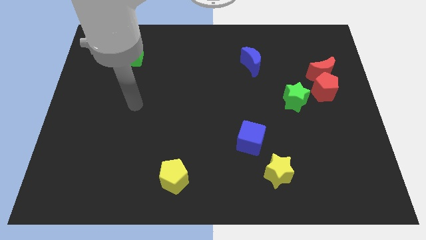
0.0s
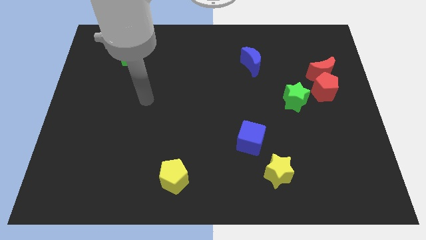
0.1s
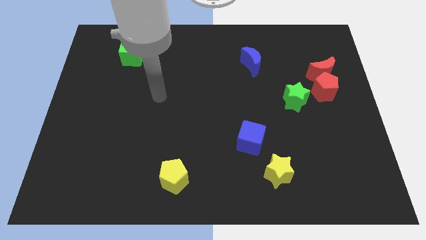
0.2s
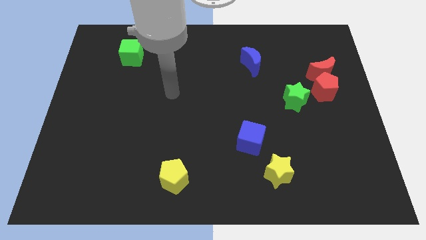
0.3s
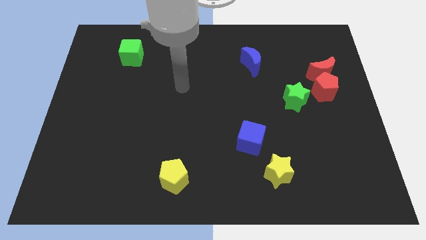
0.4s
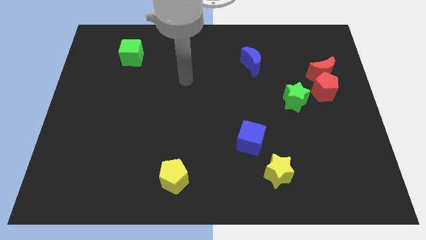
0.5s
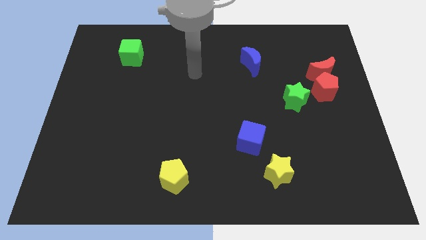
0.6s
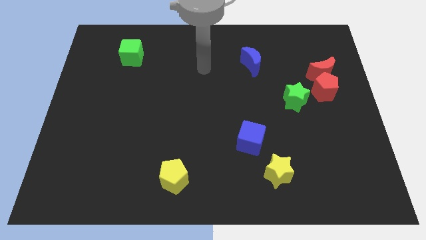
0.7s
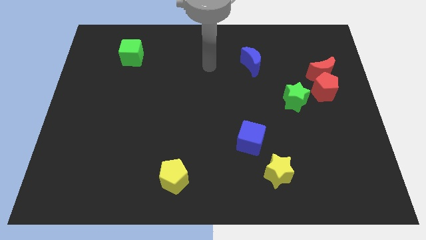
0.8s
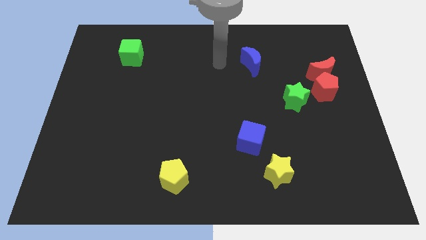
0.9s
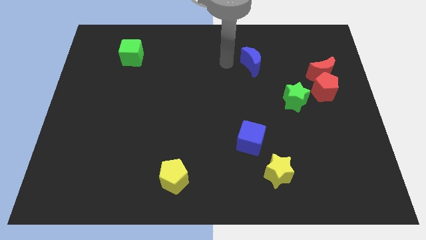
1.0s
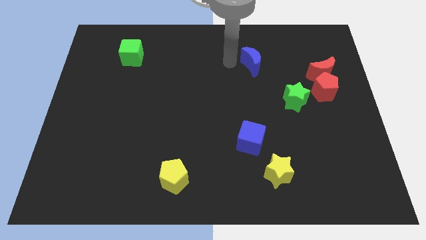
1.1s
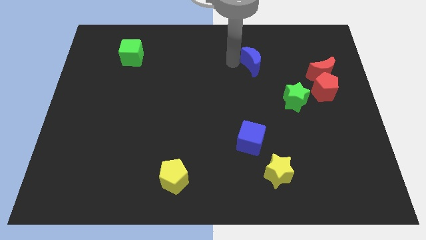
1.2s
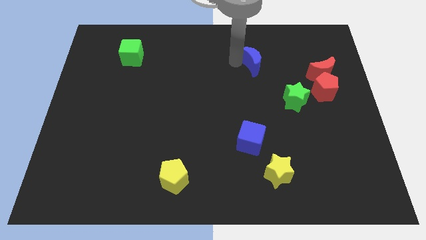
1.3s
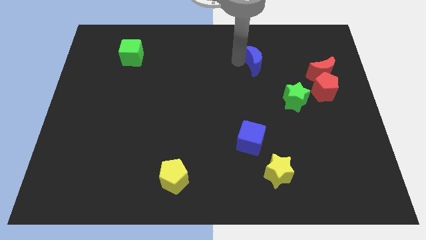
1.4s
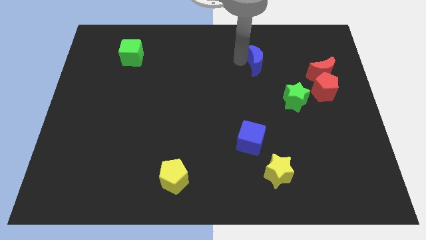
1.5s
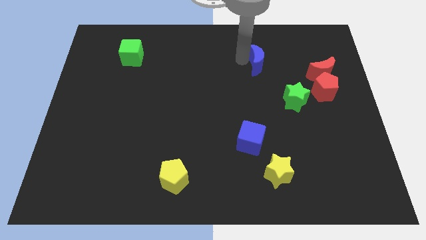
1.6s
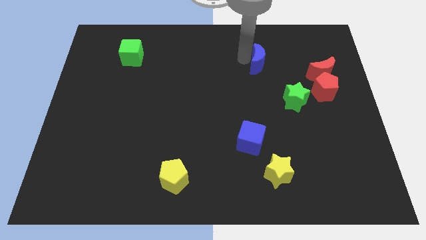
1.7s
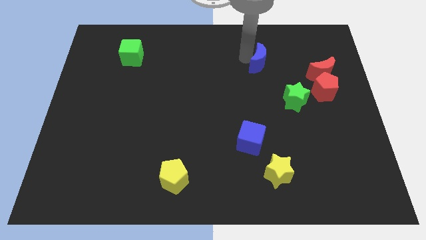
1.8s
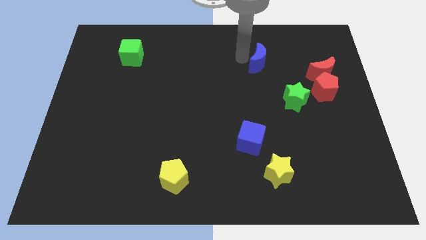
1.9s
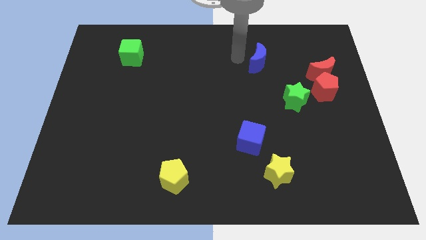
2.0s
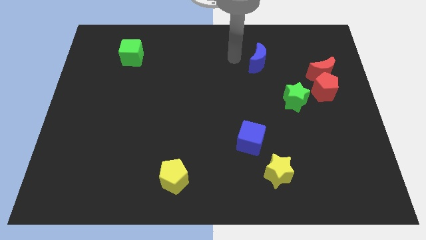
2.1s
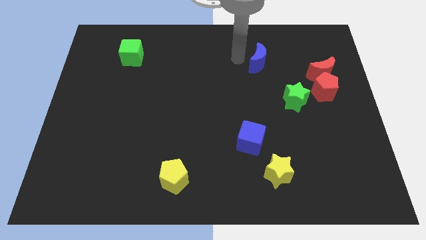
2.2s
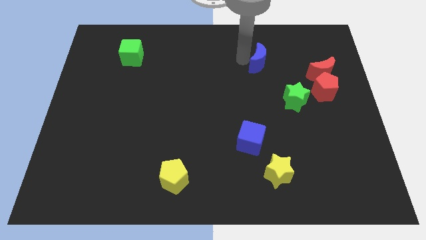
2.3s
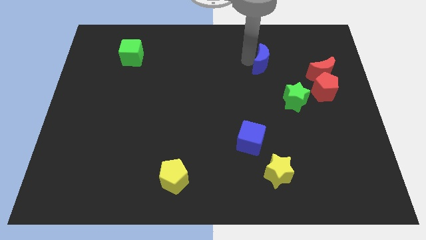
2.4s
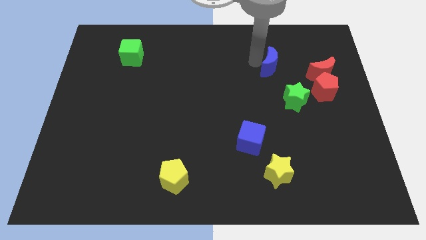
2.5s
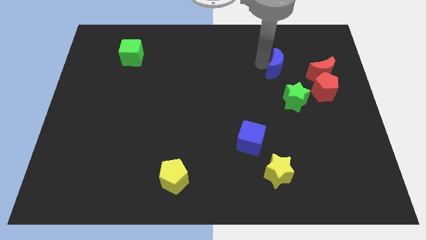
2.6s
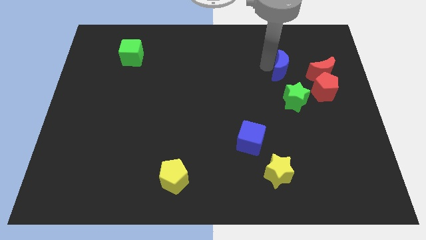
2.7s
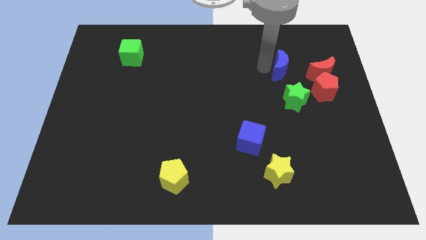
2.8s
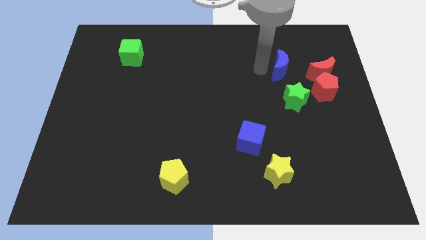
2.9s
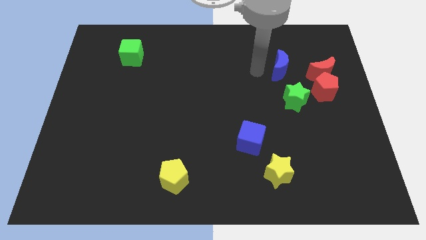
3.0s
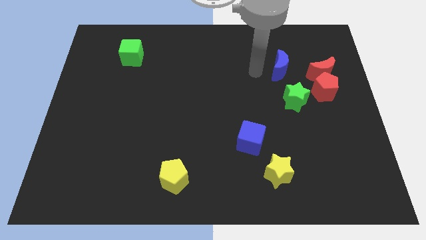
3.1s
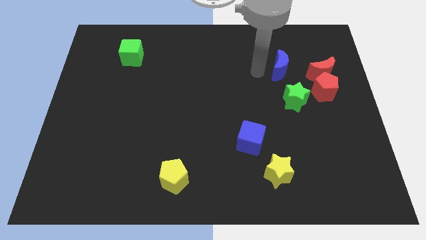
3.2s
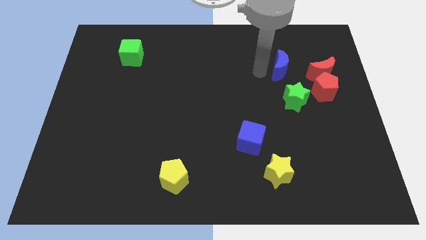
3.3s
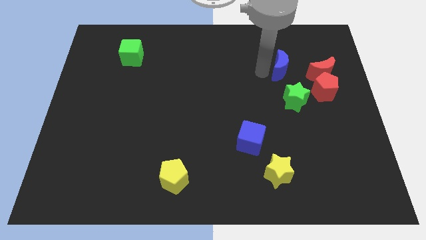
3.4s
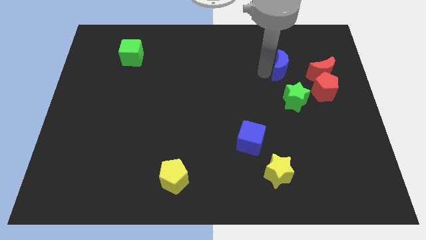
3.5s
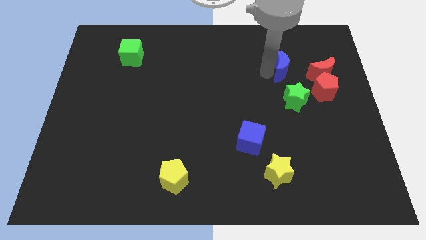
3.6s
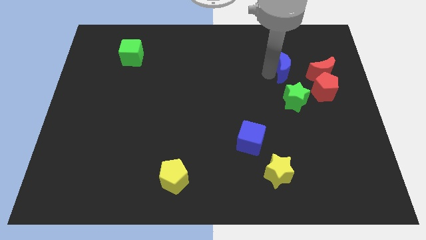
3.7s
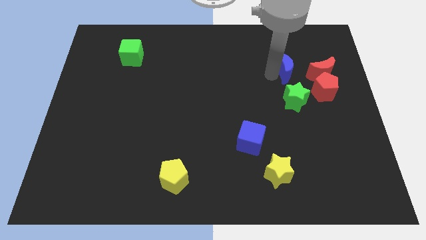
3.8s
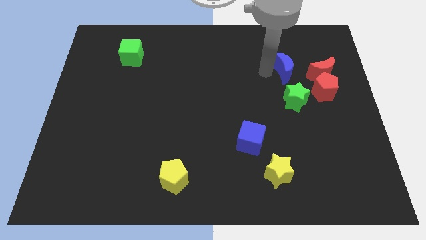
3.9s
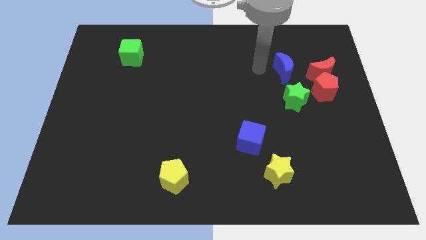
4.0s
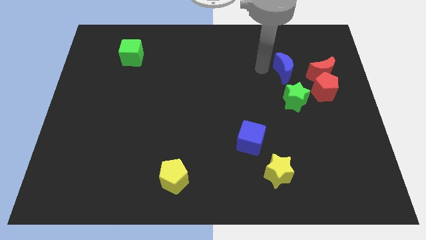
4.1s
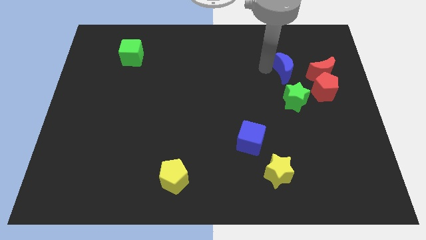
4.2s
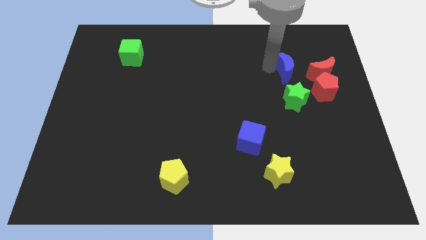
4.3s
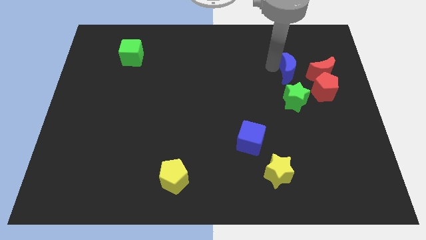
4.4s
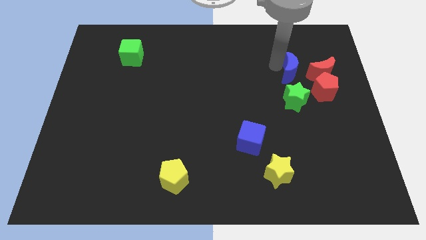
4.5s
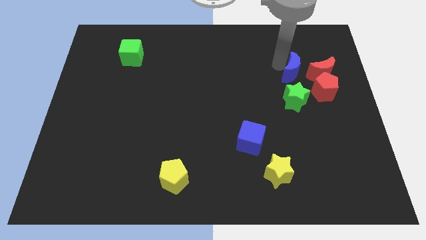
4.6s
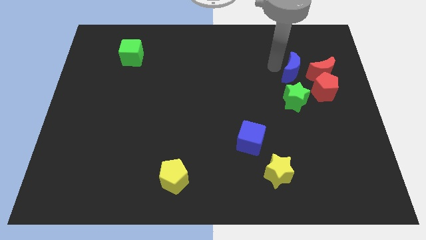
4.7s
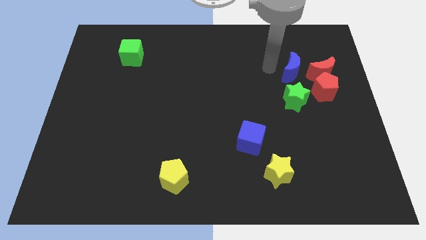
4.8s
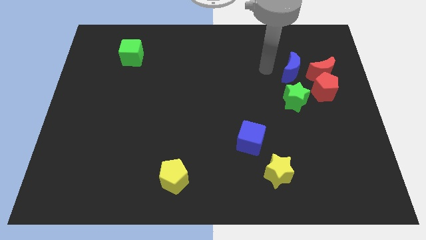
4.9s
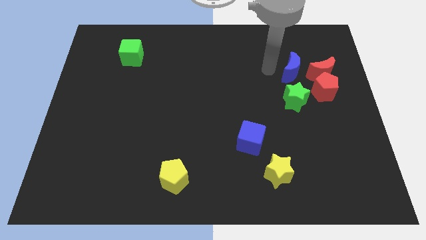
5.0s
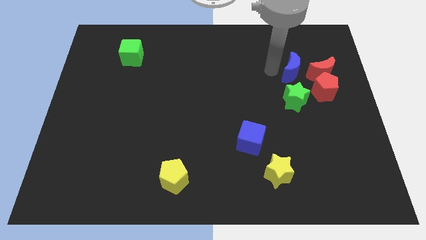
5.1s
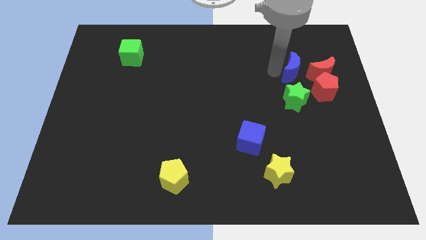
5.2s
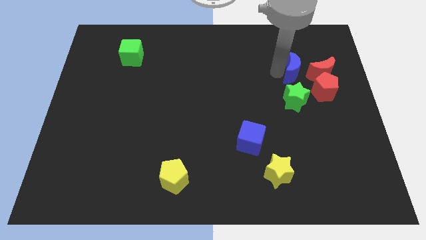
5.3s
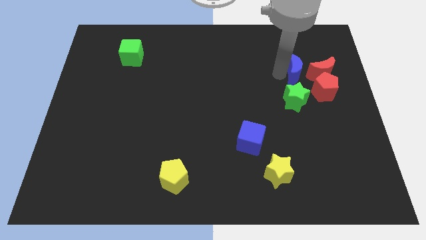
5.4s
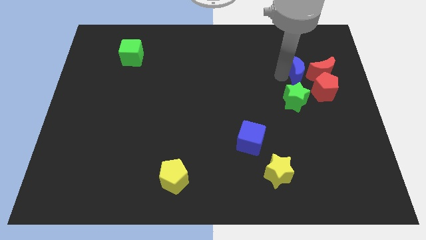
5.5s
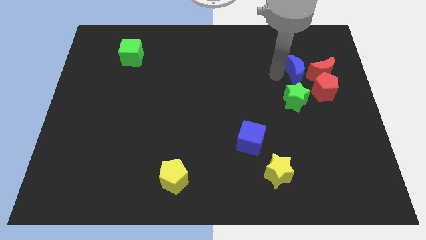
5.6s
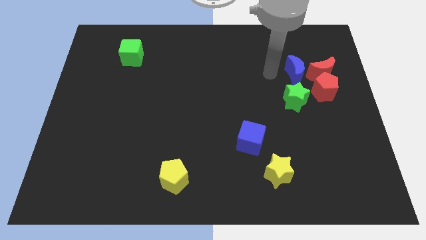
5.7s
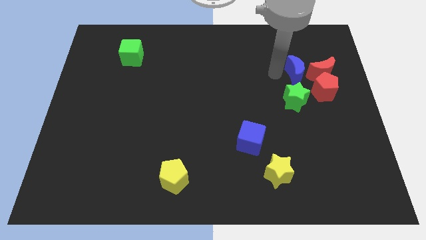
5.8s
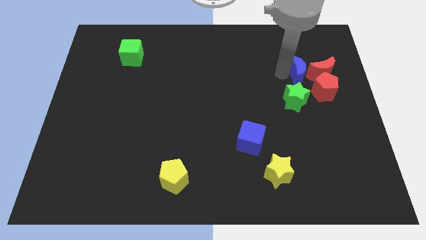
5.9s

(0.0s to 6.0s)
push the blue moon close to the red moon

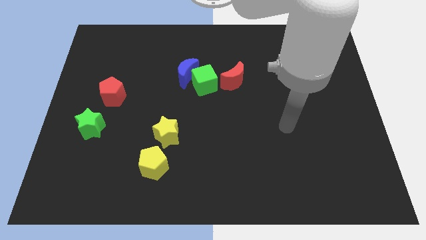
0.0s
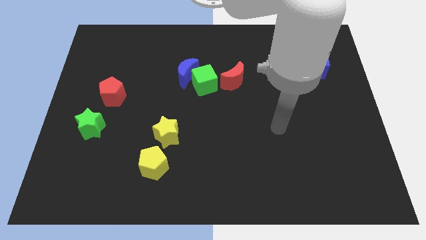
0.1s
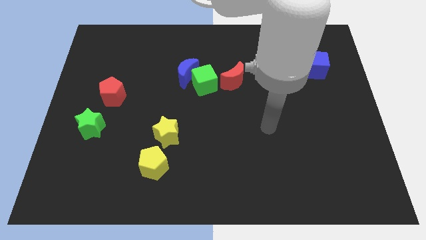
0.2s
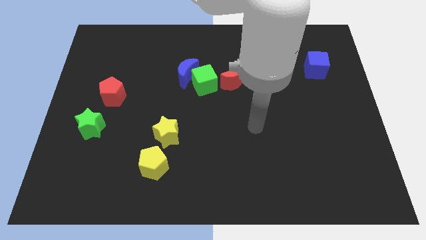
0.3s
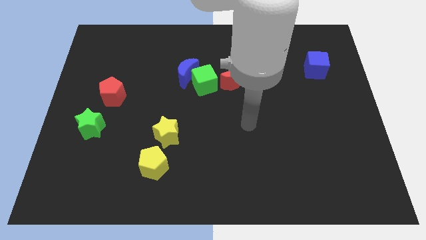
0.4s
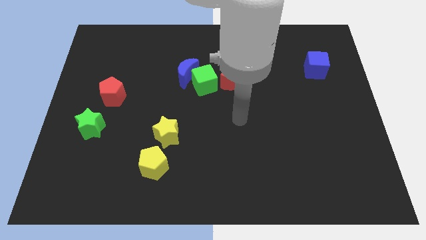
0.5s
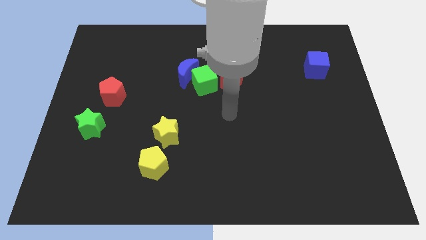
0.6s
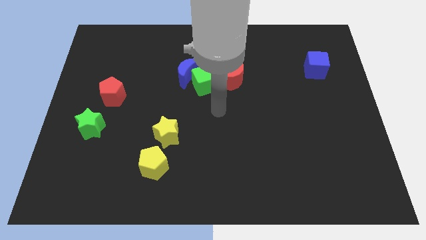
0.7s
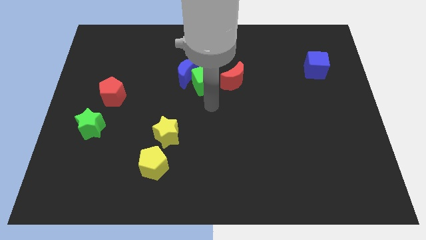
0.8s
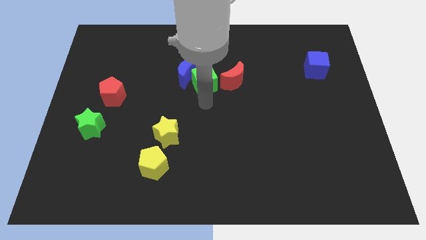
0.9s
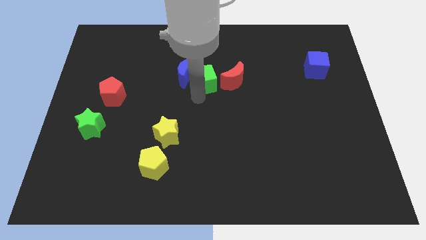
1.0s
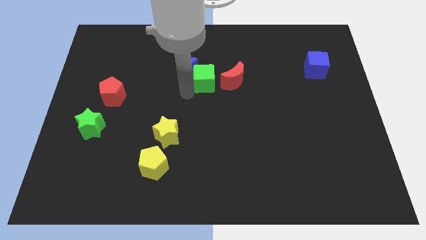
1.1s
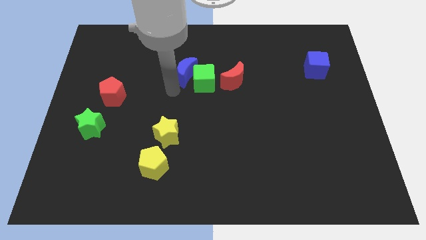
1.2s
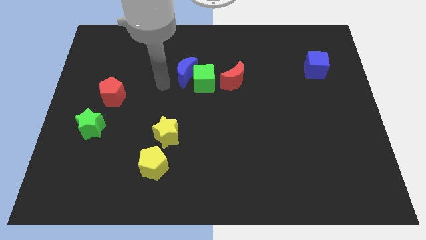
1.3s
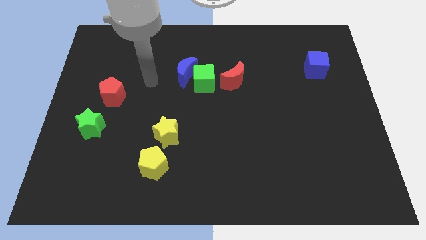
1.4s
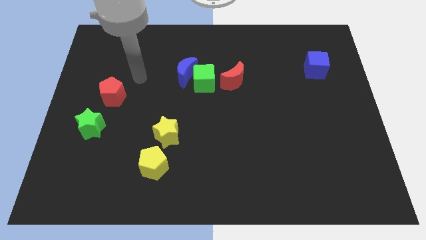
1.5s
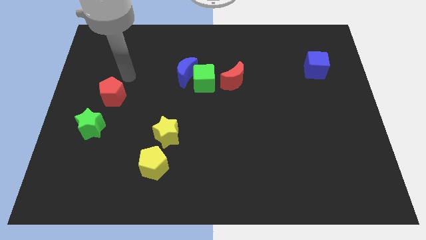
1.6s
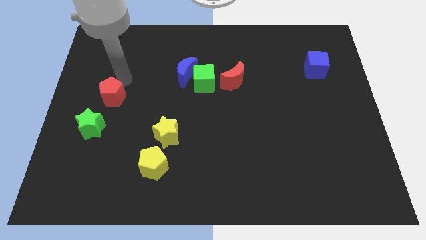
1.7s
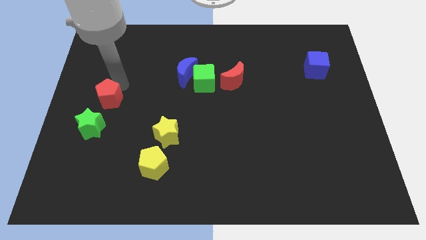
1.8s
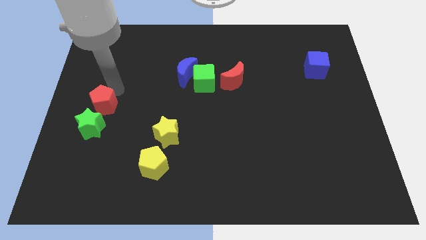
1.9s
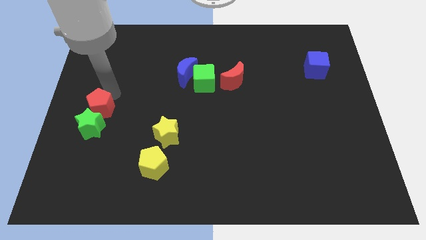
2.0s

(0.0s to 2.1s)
push the red pentagon to the green star
